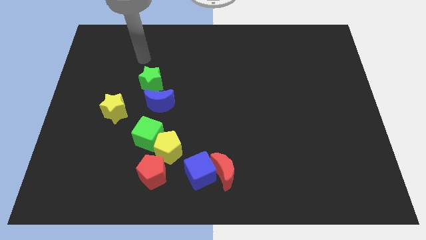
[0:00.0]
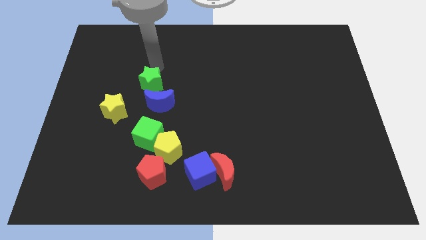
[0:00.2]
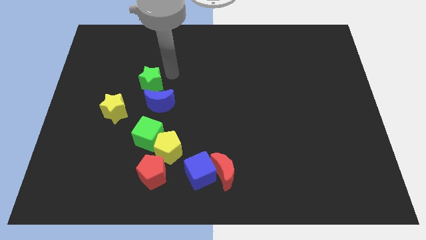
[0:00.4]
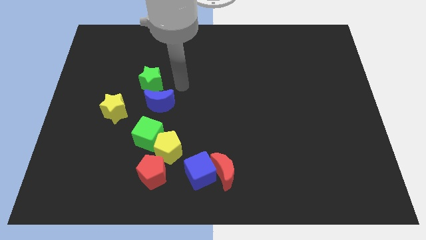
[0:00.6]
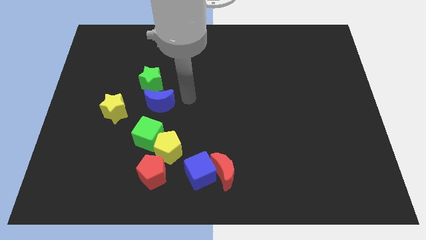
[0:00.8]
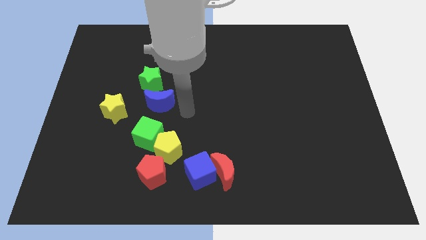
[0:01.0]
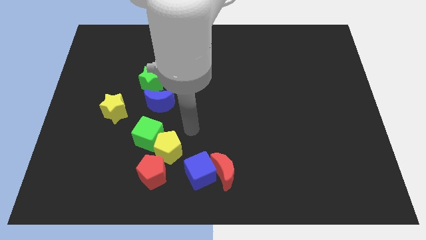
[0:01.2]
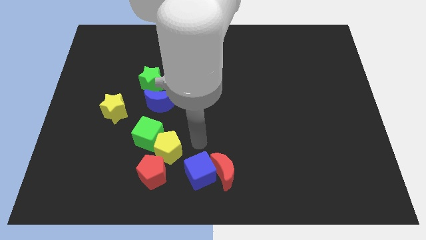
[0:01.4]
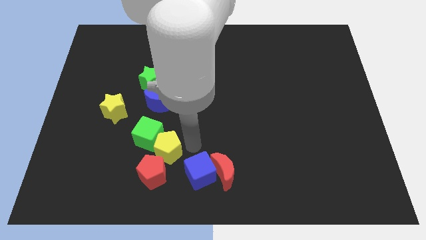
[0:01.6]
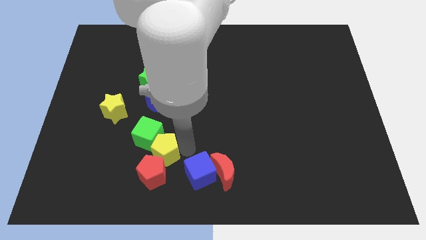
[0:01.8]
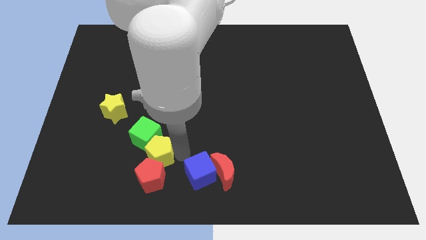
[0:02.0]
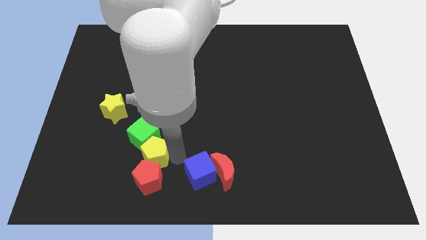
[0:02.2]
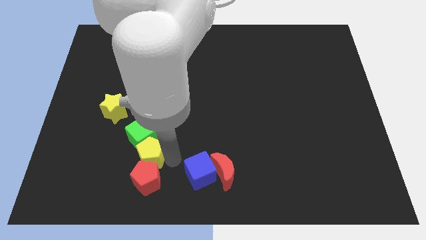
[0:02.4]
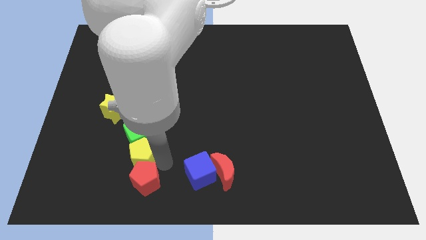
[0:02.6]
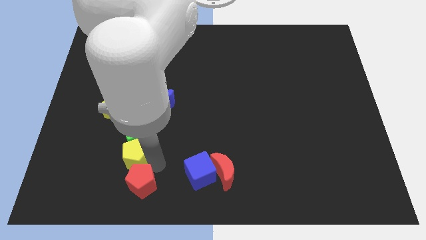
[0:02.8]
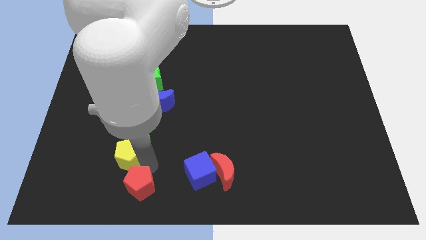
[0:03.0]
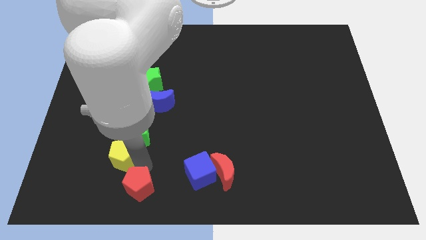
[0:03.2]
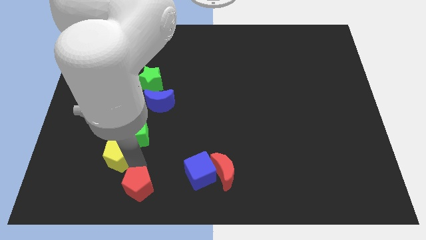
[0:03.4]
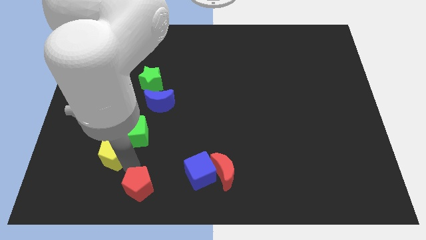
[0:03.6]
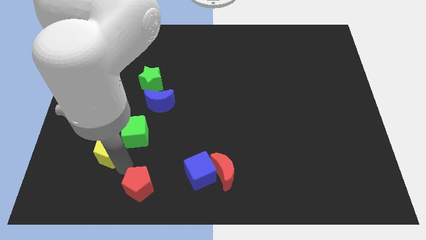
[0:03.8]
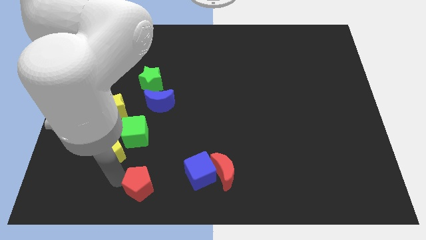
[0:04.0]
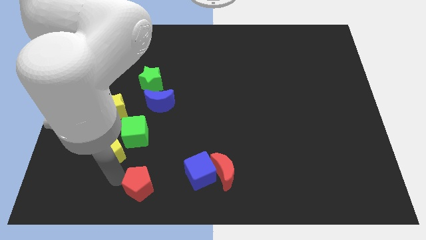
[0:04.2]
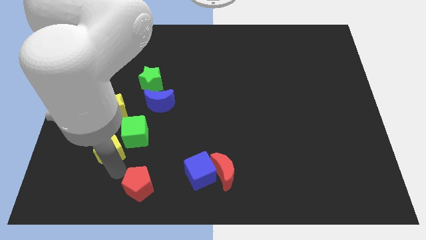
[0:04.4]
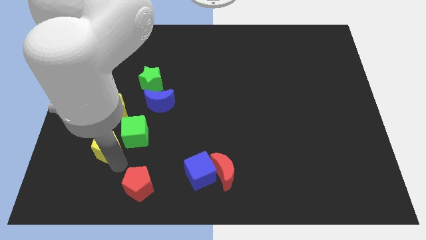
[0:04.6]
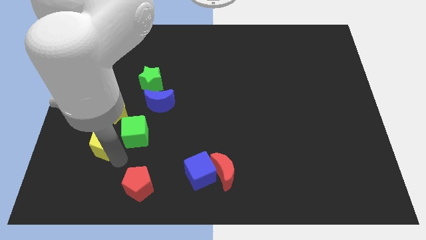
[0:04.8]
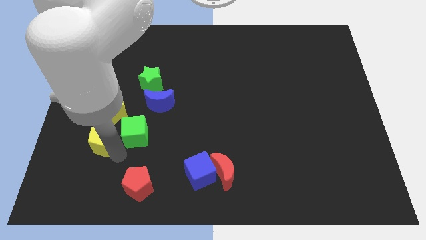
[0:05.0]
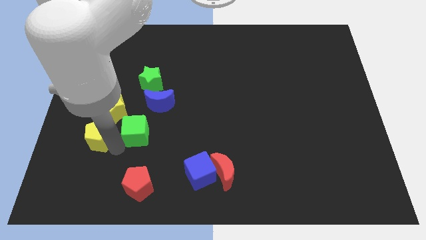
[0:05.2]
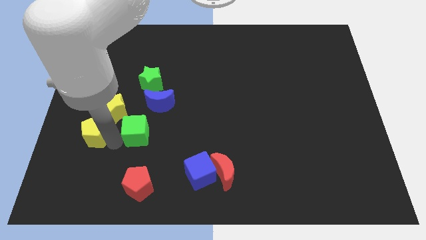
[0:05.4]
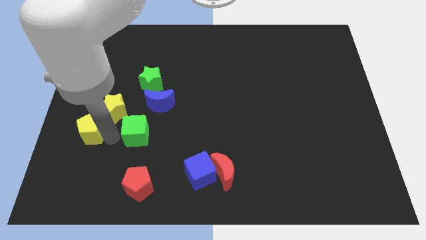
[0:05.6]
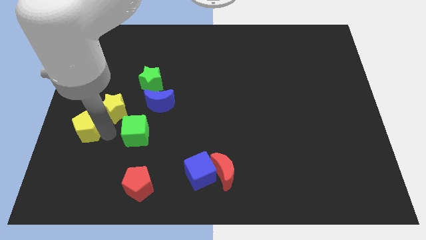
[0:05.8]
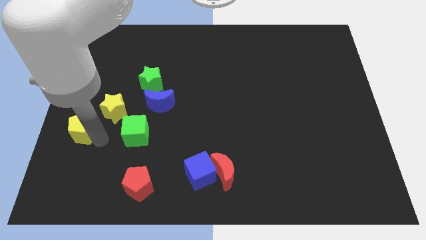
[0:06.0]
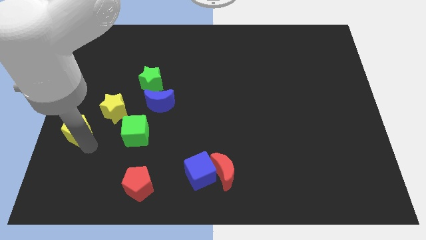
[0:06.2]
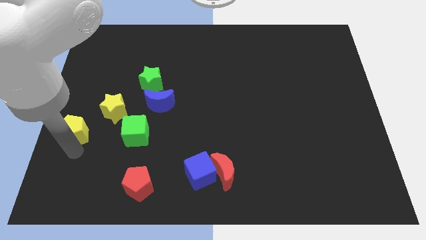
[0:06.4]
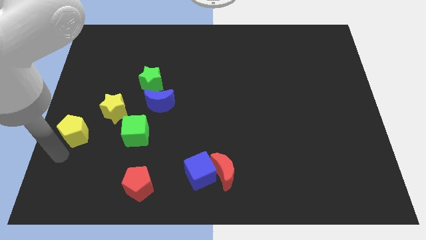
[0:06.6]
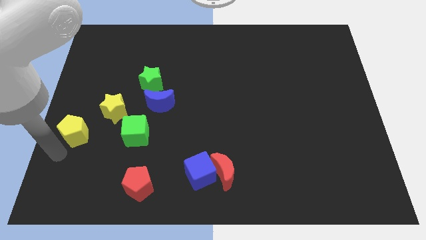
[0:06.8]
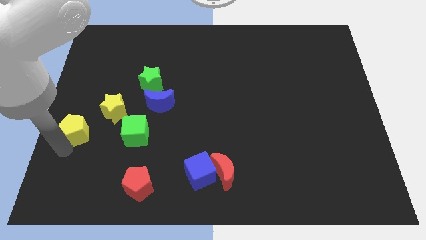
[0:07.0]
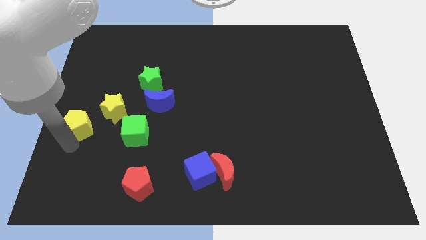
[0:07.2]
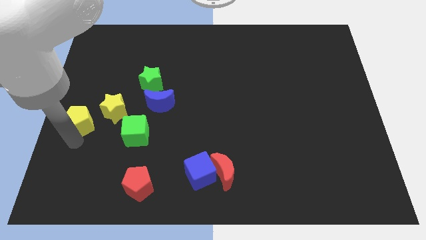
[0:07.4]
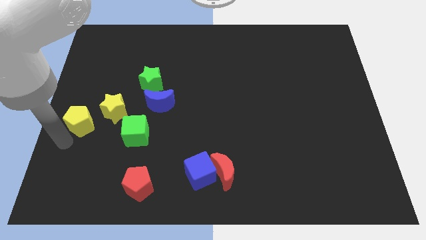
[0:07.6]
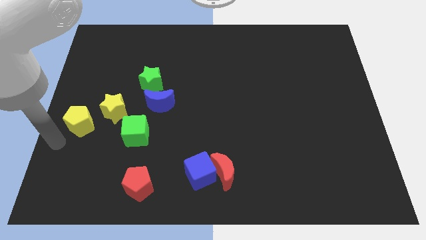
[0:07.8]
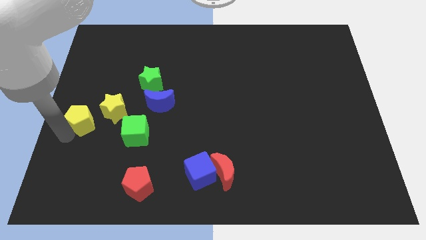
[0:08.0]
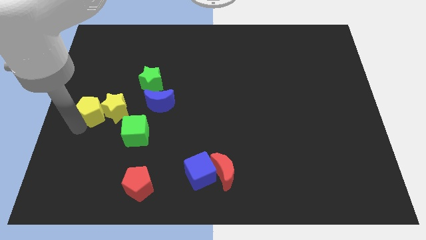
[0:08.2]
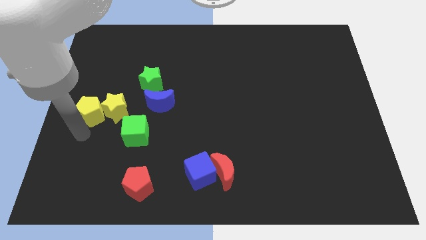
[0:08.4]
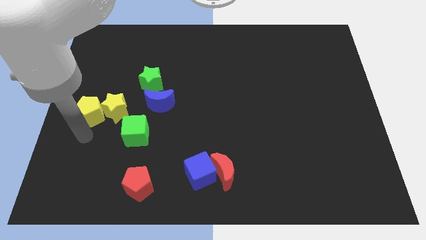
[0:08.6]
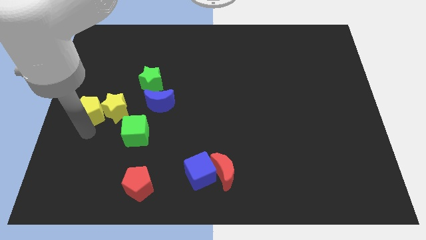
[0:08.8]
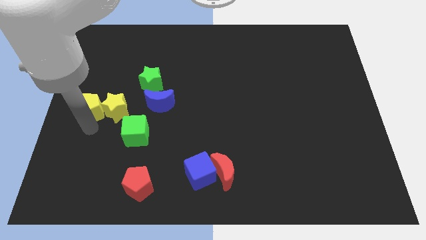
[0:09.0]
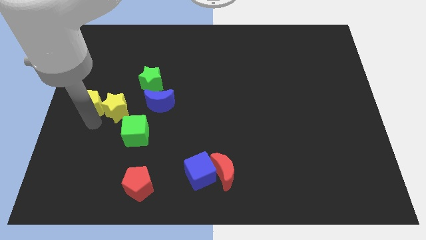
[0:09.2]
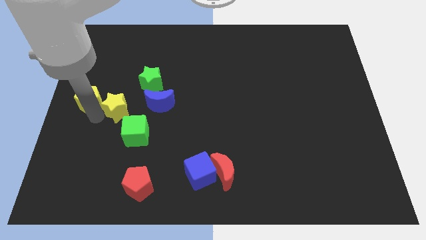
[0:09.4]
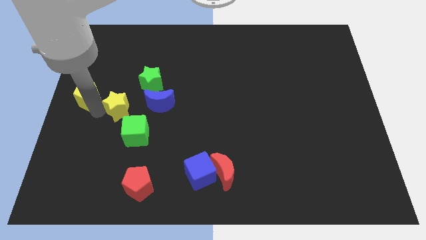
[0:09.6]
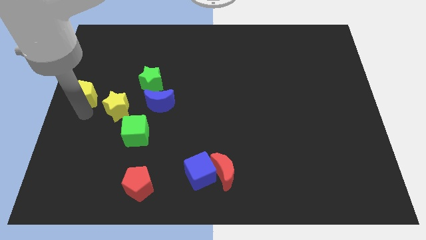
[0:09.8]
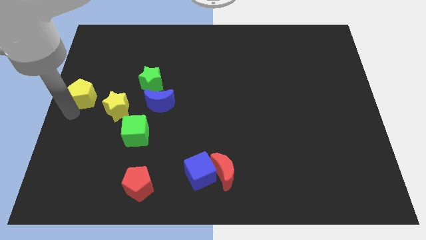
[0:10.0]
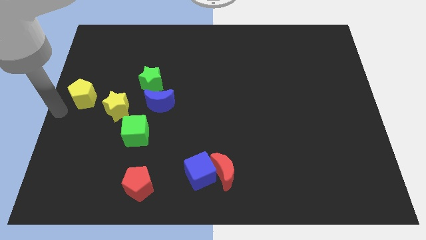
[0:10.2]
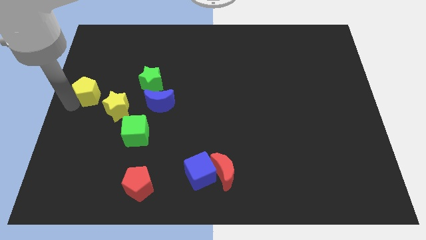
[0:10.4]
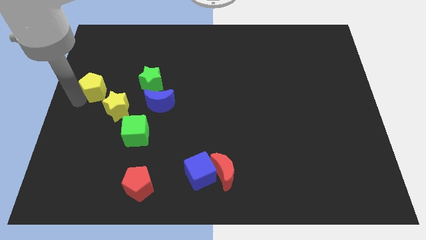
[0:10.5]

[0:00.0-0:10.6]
move the yellow pentagon just left of the green star

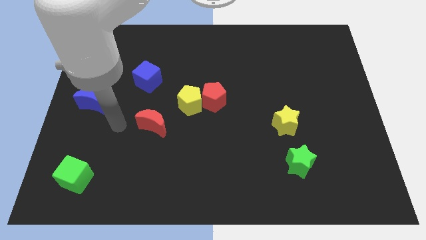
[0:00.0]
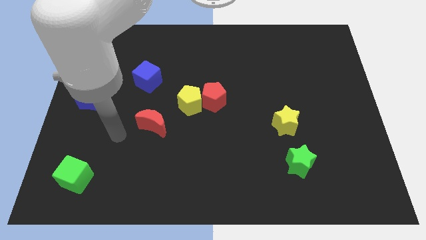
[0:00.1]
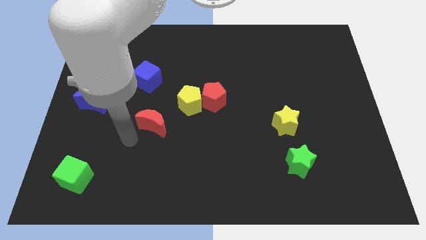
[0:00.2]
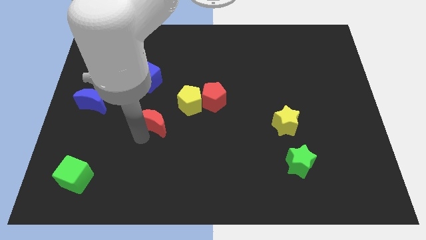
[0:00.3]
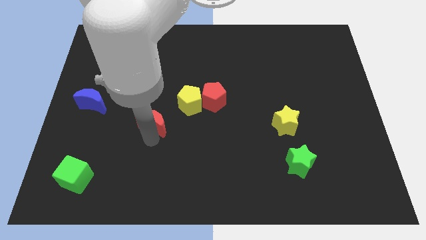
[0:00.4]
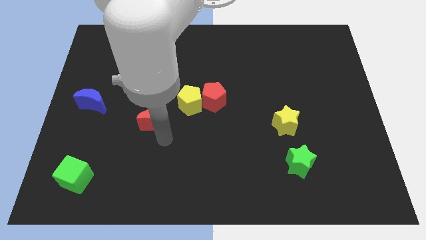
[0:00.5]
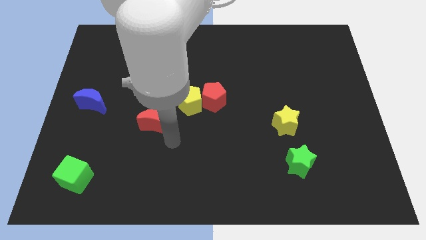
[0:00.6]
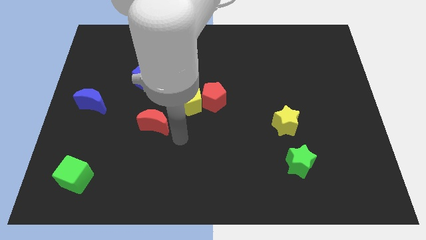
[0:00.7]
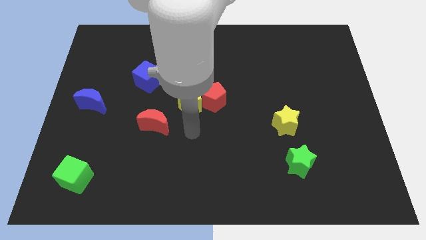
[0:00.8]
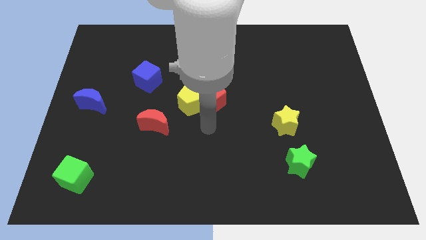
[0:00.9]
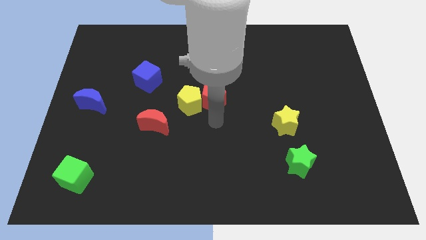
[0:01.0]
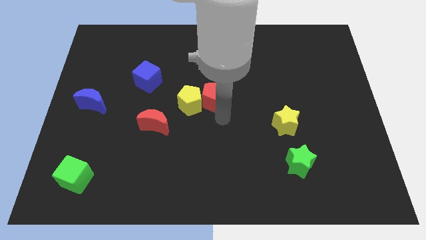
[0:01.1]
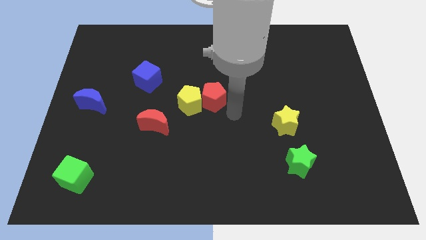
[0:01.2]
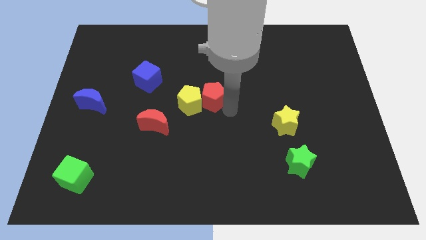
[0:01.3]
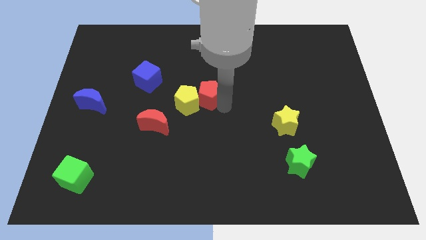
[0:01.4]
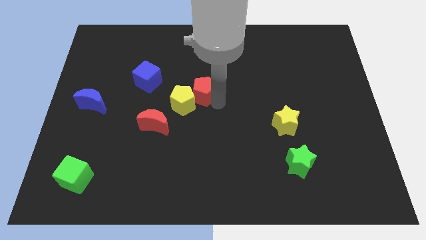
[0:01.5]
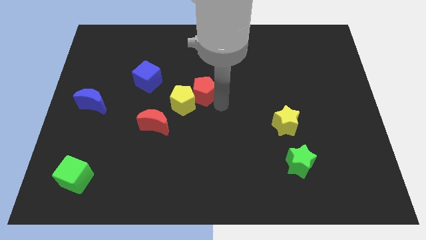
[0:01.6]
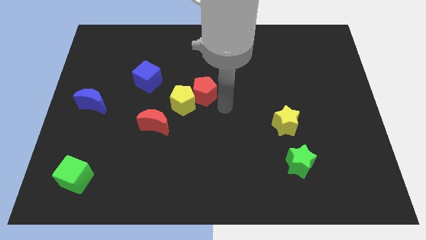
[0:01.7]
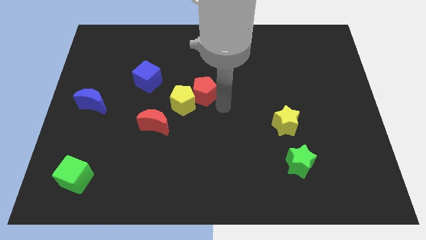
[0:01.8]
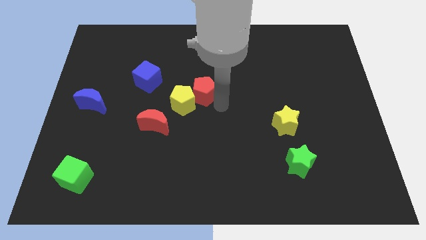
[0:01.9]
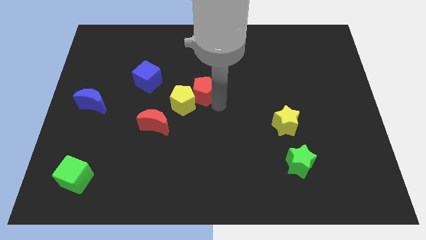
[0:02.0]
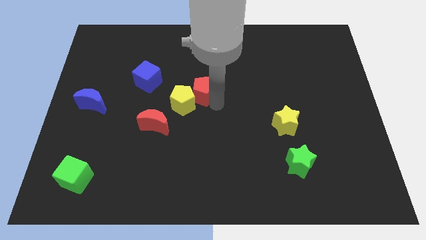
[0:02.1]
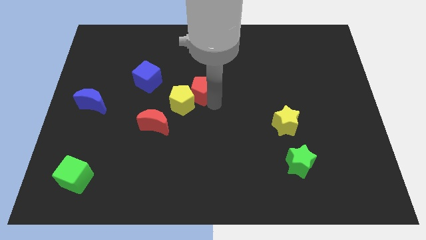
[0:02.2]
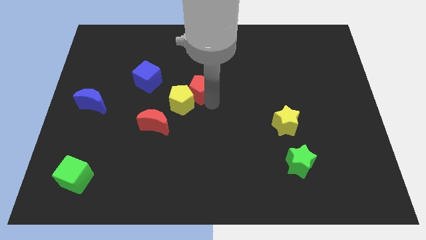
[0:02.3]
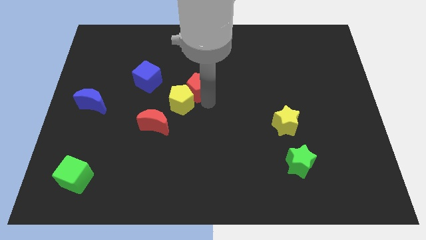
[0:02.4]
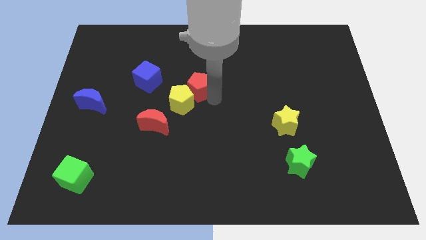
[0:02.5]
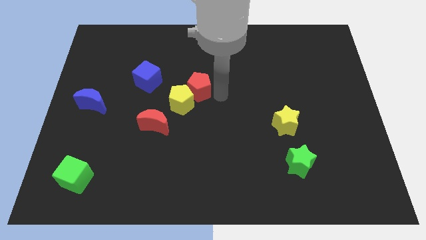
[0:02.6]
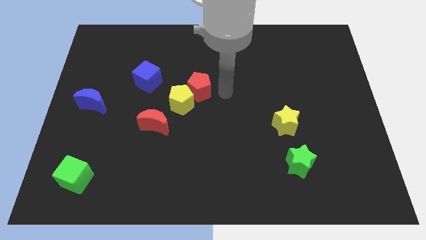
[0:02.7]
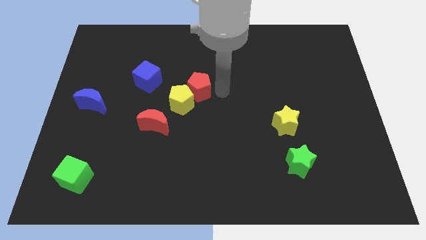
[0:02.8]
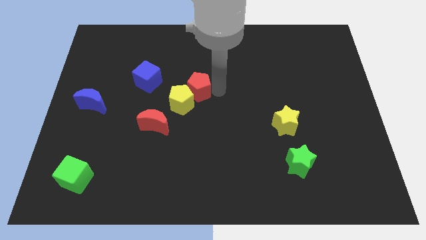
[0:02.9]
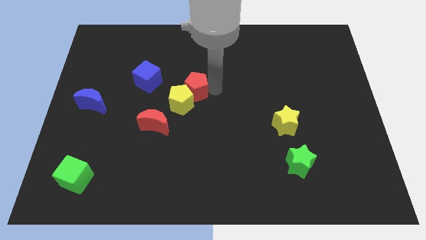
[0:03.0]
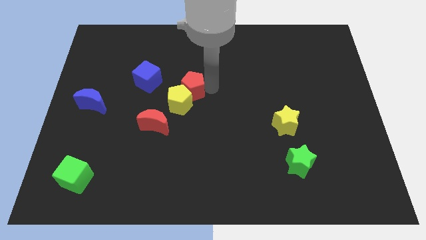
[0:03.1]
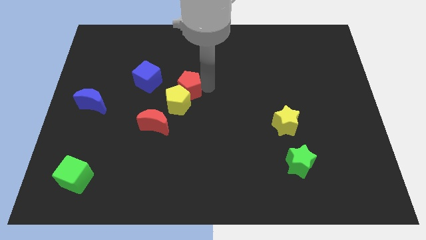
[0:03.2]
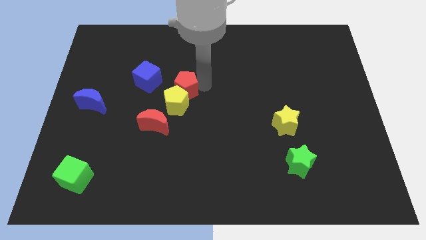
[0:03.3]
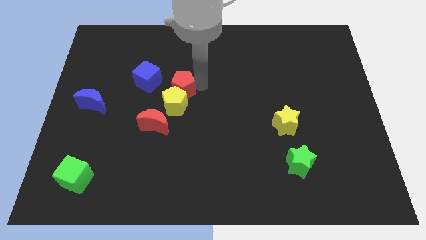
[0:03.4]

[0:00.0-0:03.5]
put the red pentagon to the top left of the yellow pentagon
